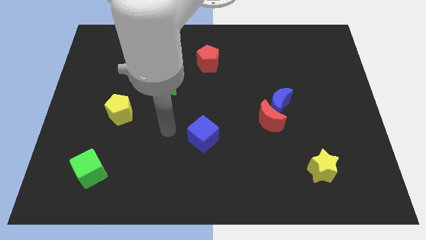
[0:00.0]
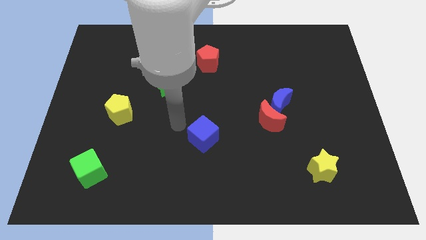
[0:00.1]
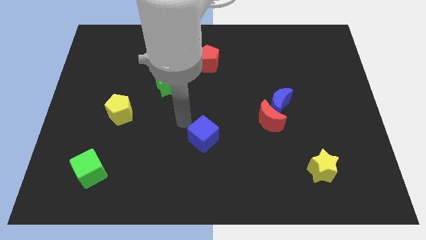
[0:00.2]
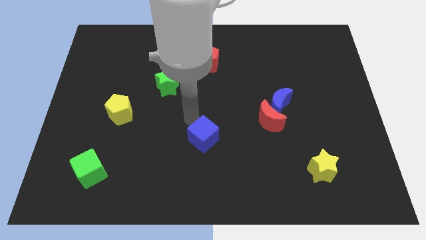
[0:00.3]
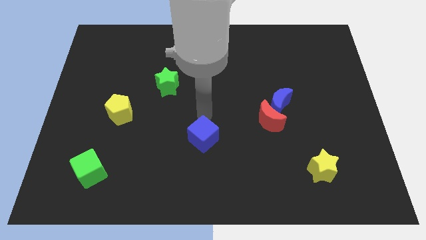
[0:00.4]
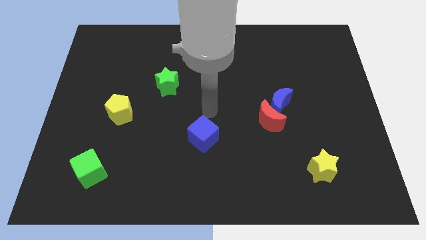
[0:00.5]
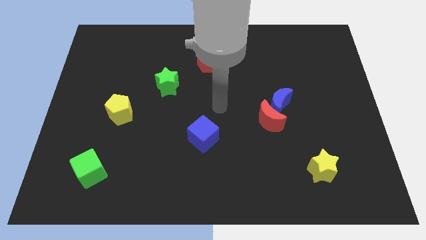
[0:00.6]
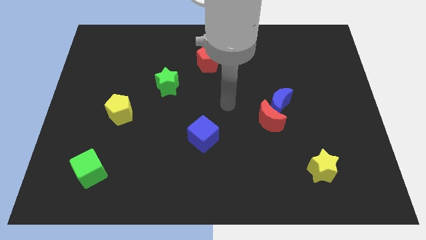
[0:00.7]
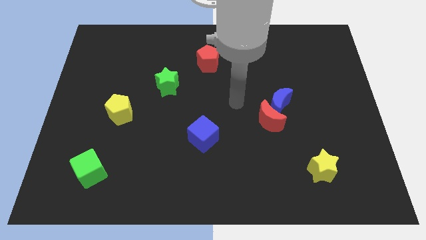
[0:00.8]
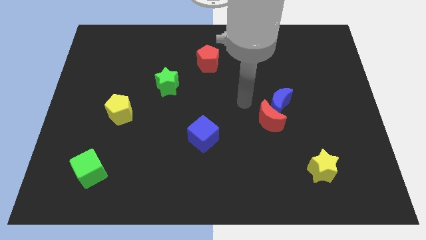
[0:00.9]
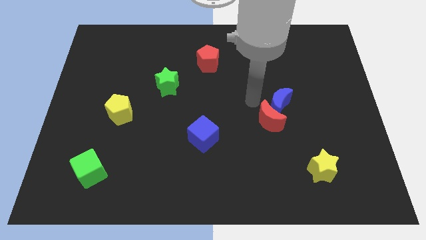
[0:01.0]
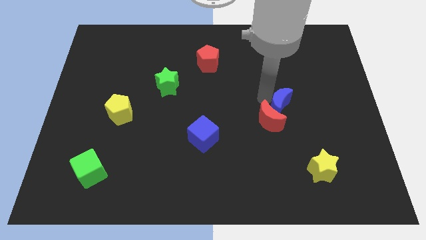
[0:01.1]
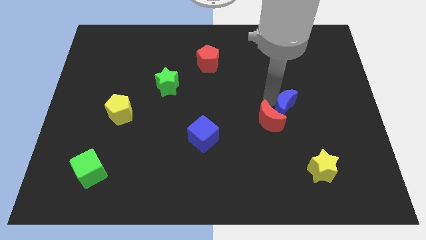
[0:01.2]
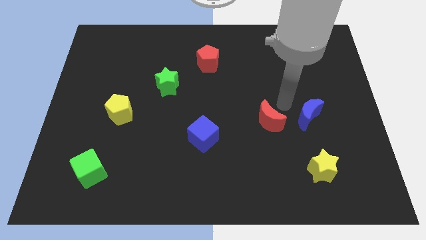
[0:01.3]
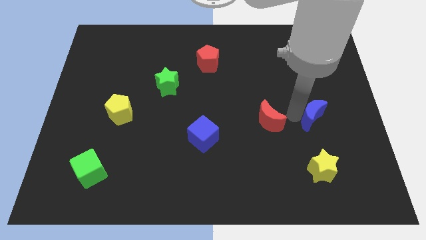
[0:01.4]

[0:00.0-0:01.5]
move the red moon away from the blue moon

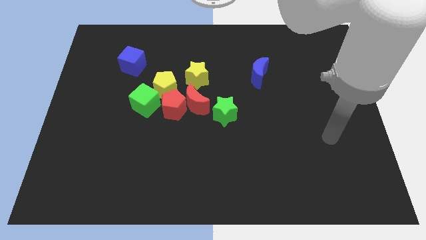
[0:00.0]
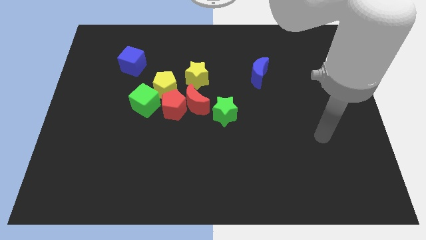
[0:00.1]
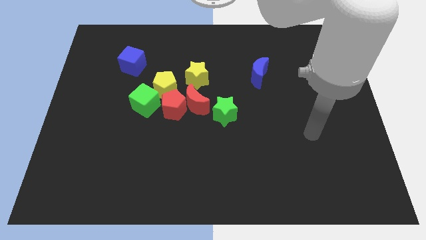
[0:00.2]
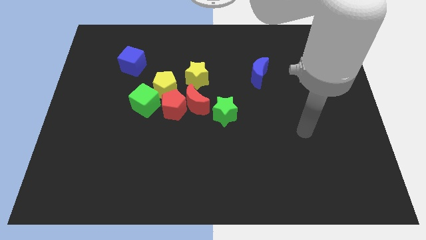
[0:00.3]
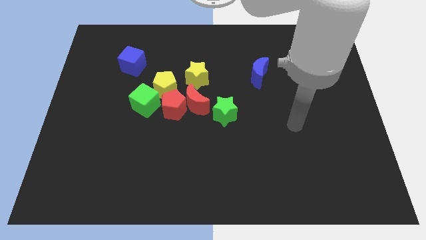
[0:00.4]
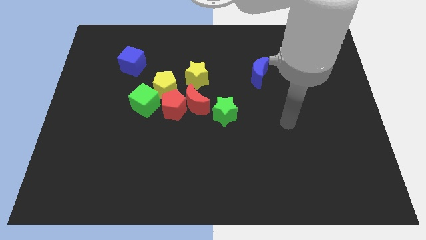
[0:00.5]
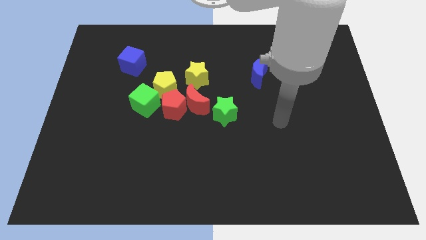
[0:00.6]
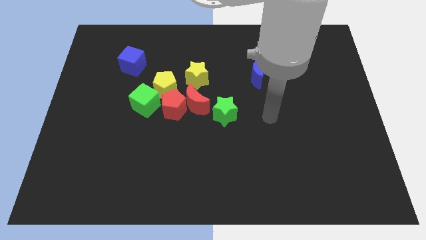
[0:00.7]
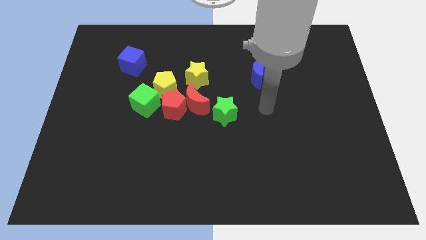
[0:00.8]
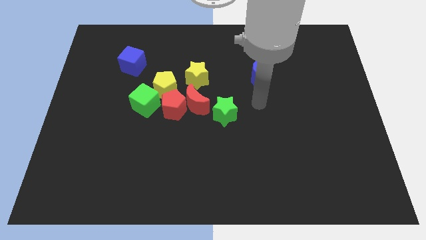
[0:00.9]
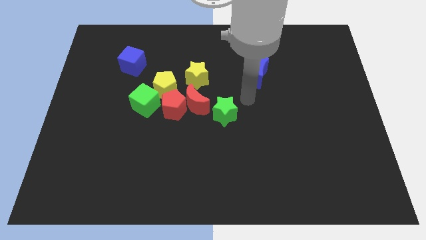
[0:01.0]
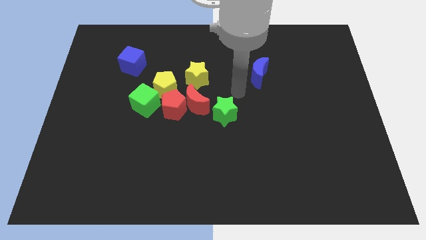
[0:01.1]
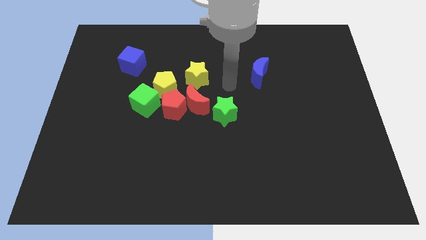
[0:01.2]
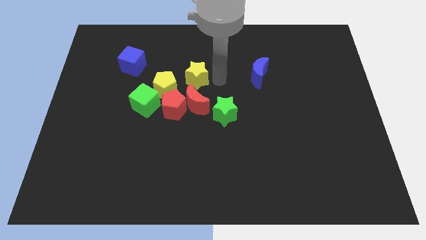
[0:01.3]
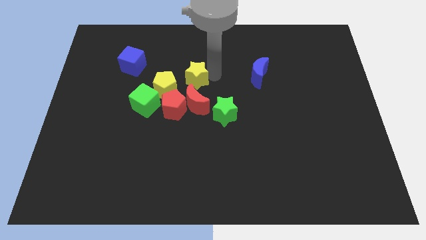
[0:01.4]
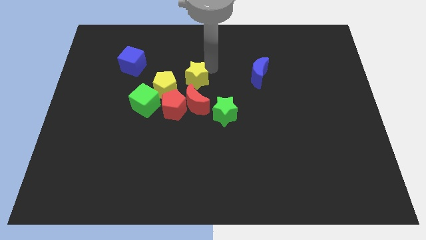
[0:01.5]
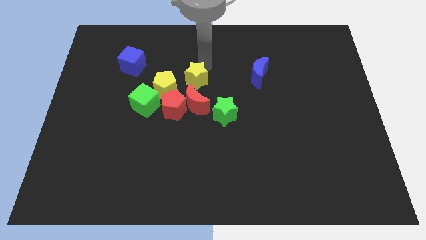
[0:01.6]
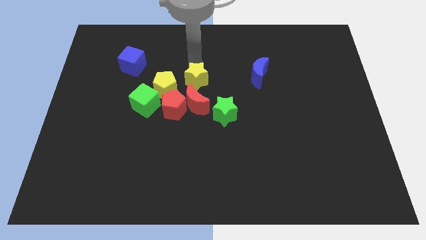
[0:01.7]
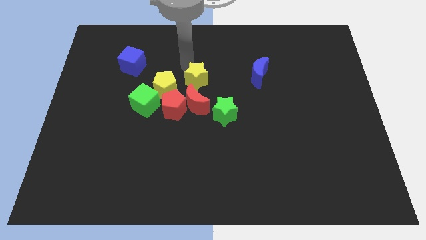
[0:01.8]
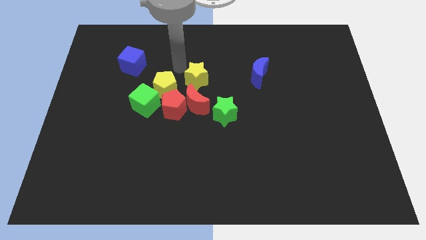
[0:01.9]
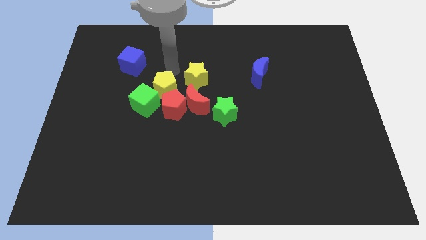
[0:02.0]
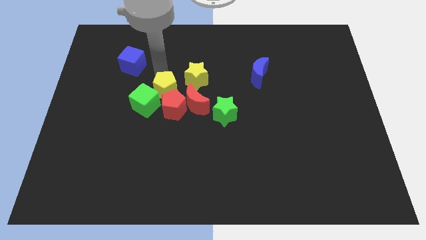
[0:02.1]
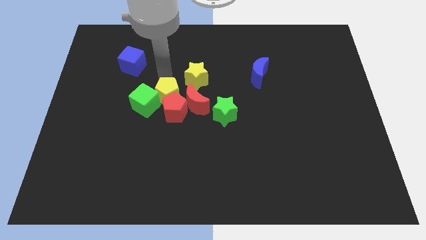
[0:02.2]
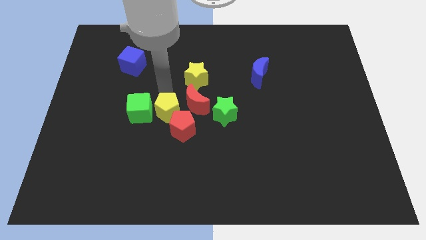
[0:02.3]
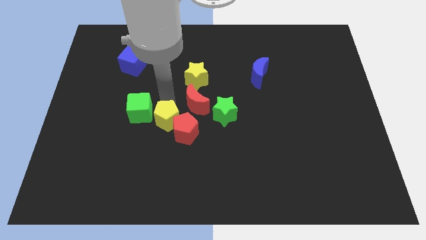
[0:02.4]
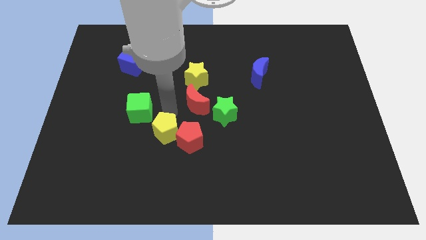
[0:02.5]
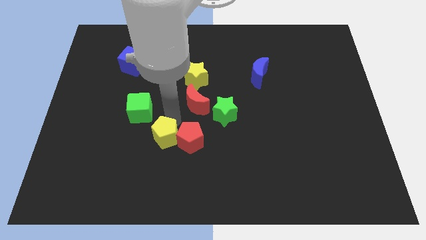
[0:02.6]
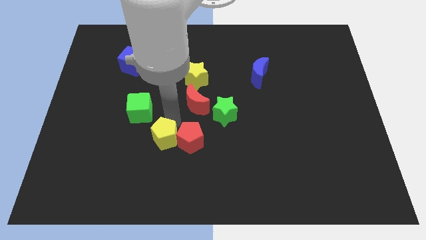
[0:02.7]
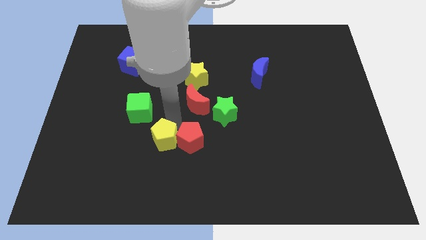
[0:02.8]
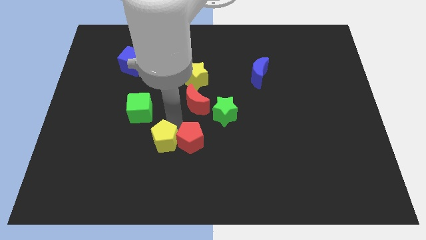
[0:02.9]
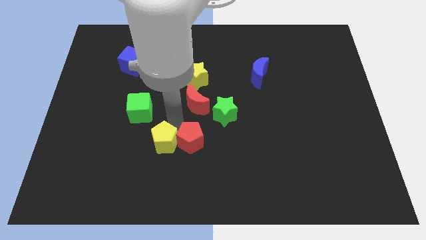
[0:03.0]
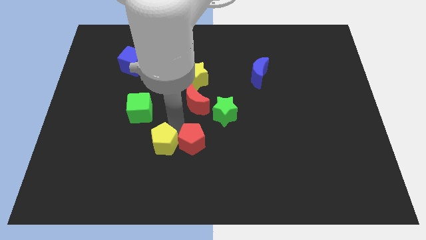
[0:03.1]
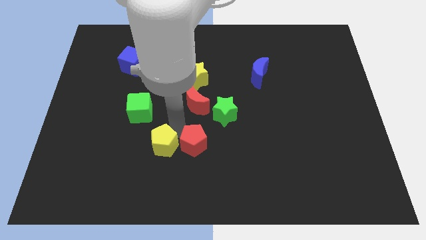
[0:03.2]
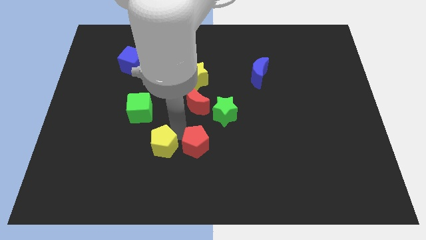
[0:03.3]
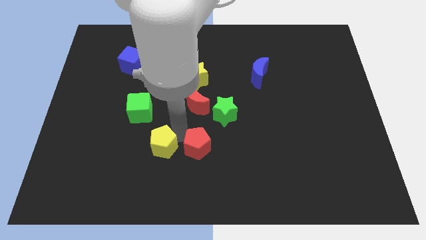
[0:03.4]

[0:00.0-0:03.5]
separate the red pentagon from the red moon, yellow pentagon, and green cube

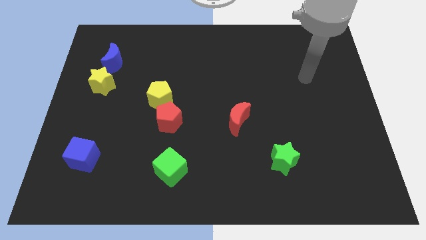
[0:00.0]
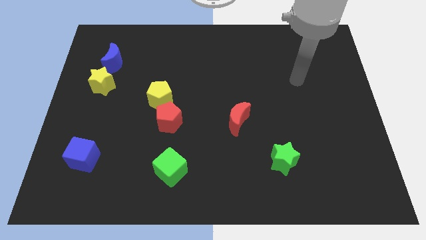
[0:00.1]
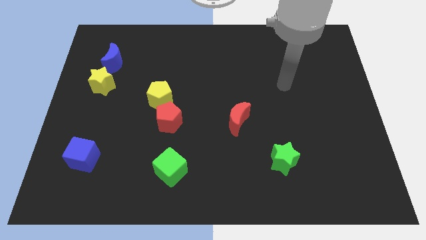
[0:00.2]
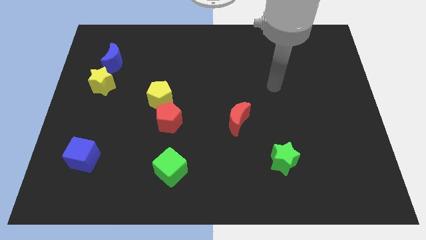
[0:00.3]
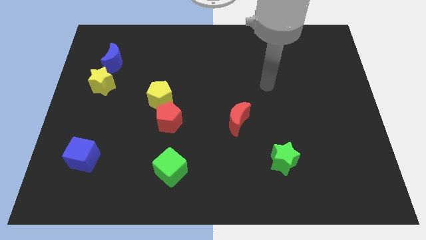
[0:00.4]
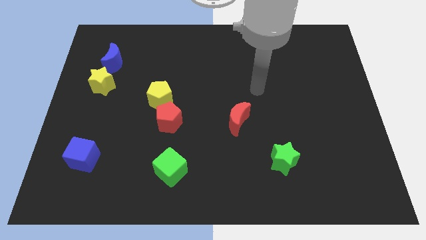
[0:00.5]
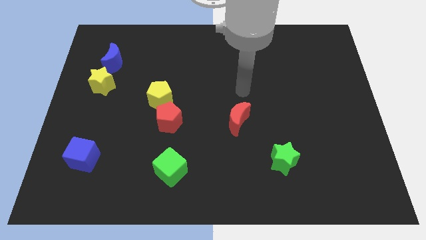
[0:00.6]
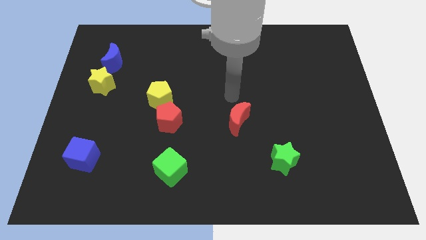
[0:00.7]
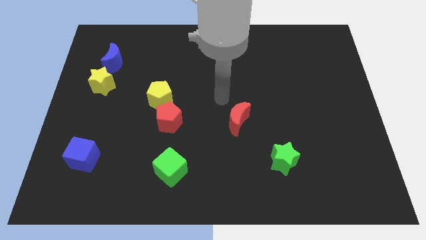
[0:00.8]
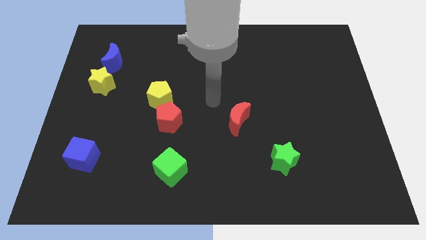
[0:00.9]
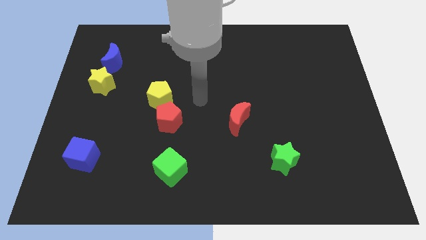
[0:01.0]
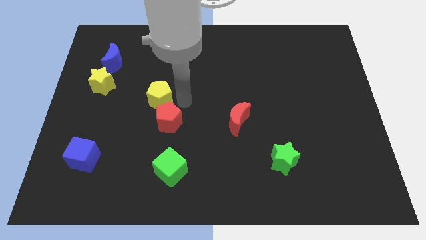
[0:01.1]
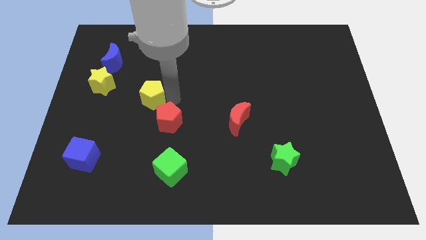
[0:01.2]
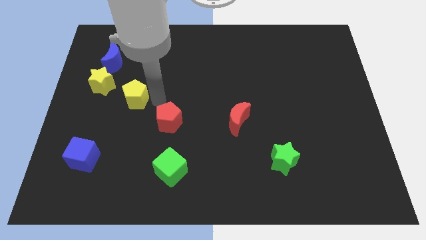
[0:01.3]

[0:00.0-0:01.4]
separate the red pentagon from the yellow pentagon

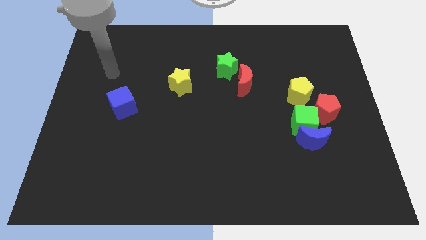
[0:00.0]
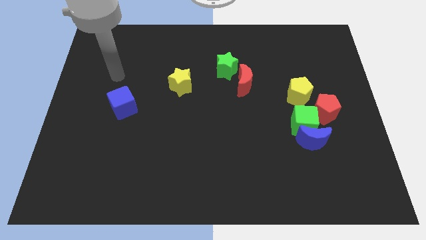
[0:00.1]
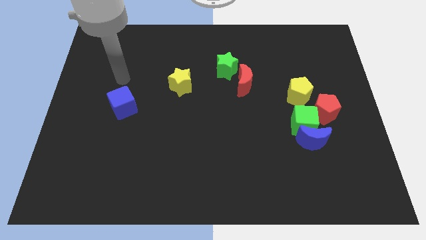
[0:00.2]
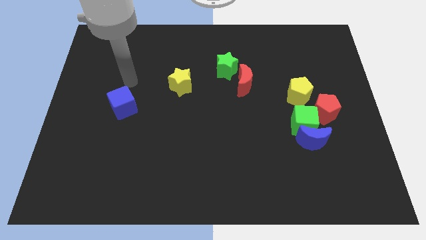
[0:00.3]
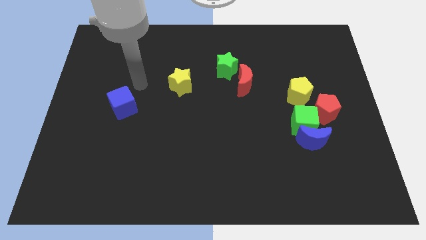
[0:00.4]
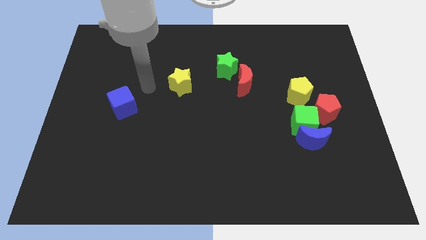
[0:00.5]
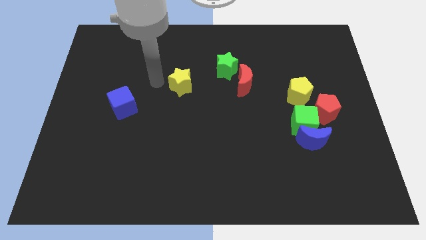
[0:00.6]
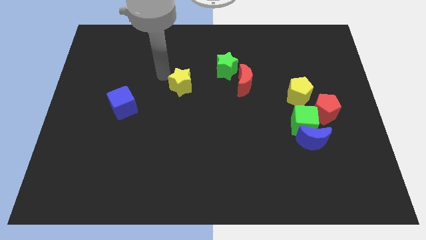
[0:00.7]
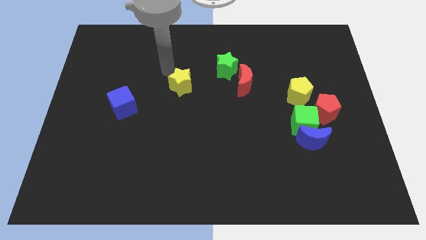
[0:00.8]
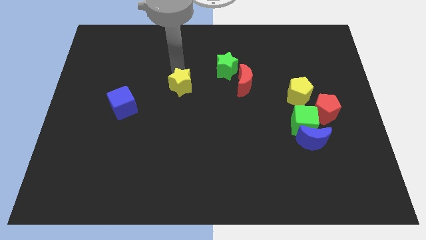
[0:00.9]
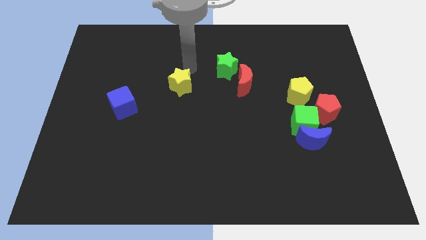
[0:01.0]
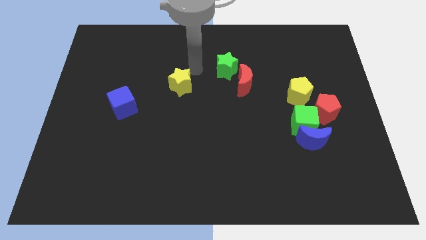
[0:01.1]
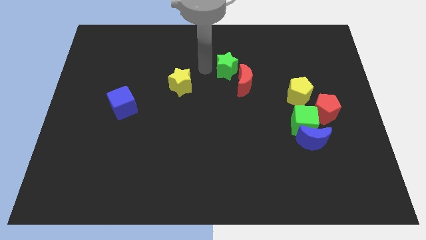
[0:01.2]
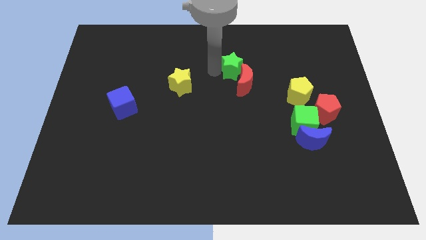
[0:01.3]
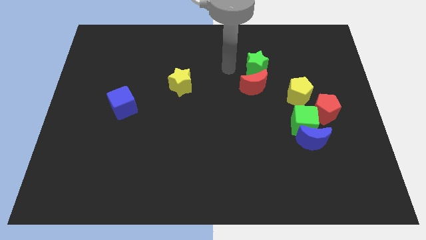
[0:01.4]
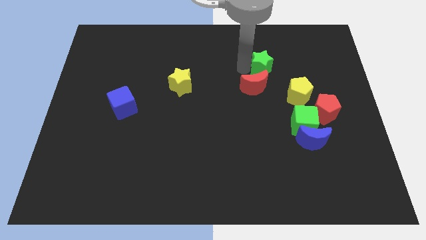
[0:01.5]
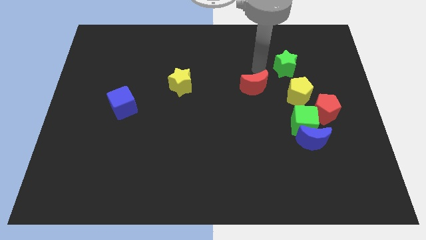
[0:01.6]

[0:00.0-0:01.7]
separate the red moon from the green star

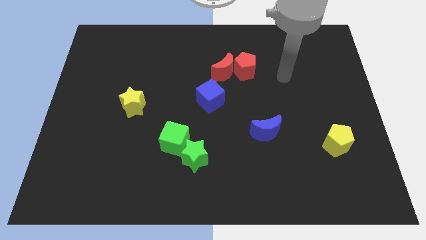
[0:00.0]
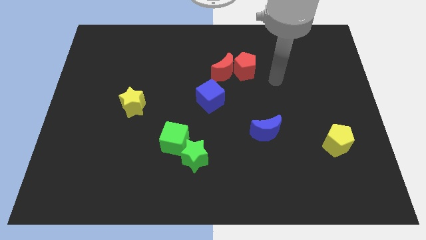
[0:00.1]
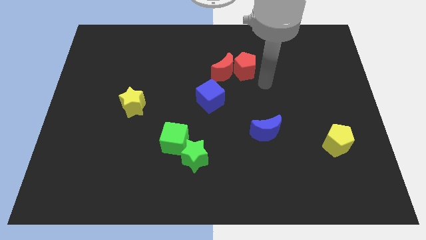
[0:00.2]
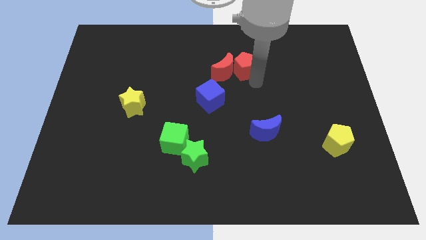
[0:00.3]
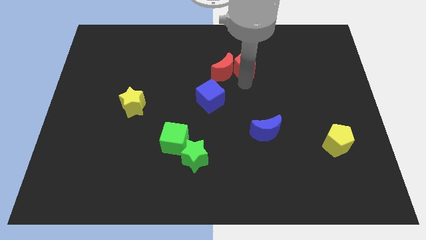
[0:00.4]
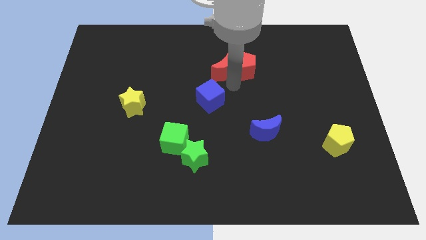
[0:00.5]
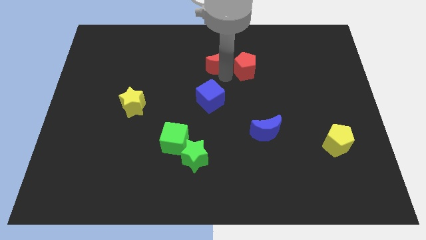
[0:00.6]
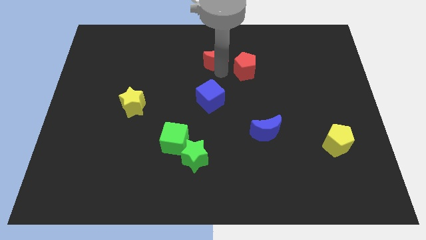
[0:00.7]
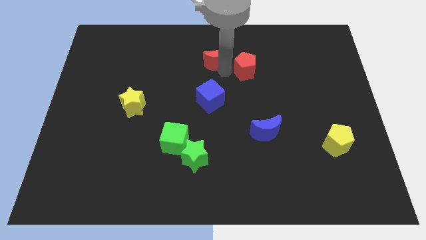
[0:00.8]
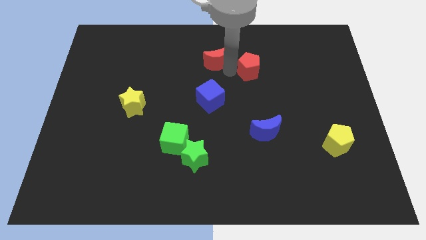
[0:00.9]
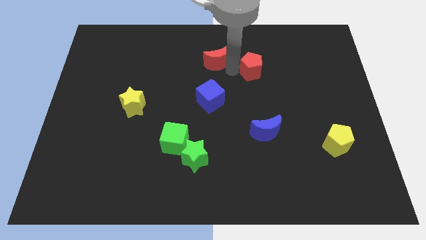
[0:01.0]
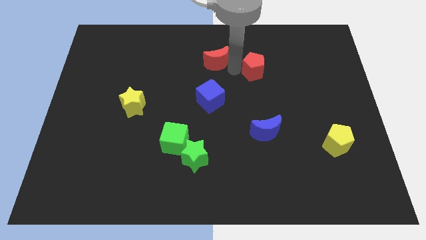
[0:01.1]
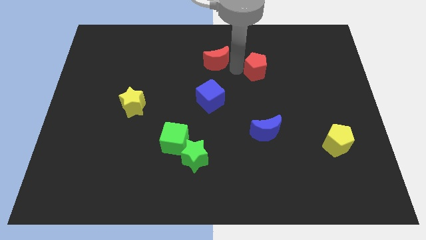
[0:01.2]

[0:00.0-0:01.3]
pull the red pentagon apart from the red moon
